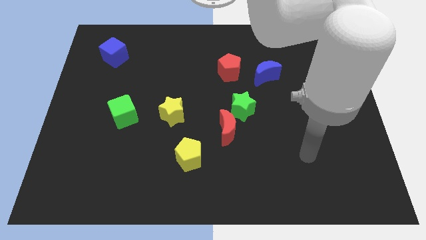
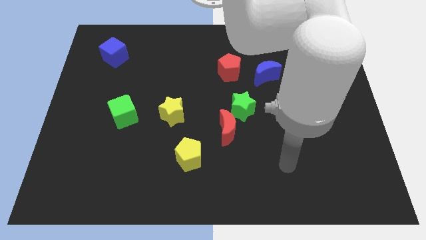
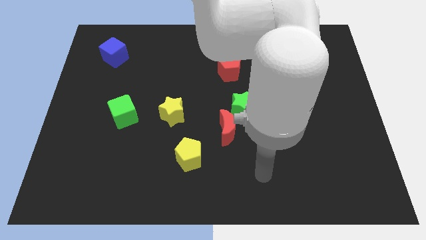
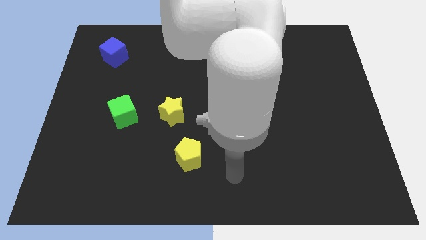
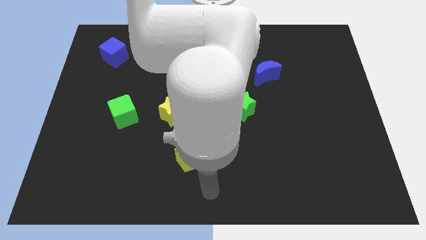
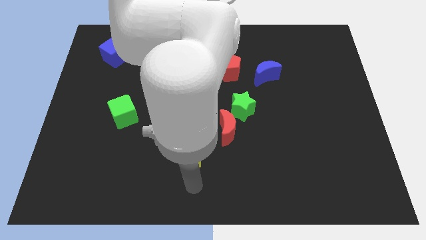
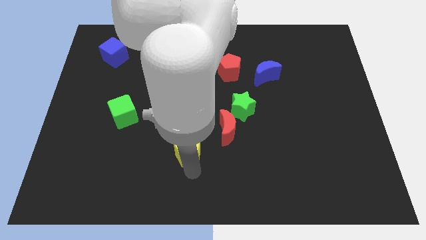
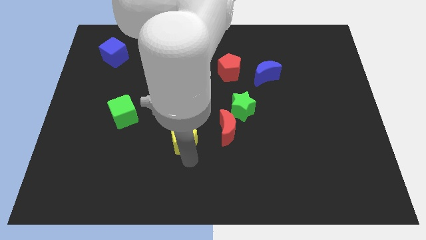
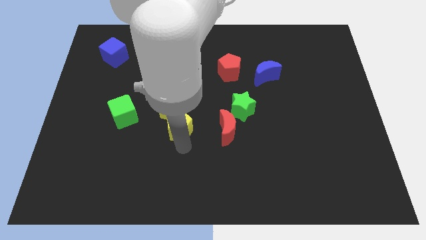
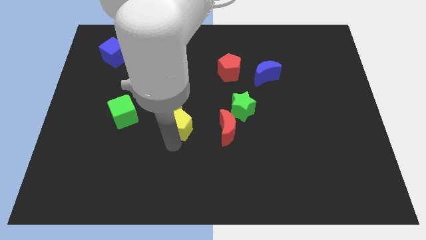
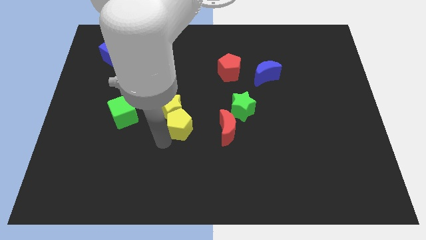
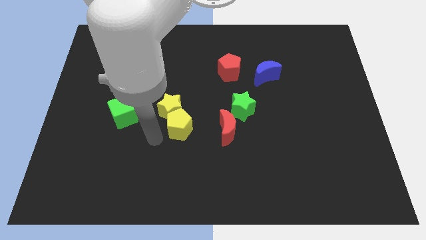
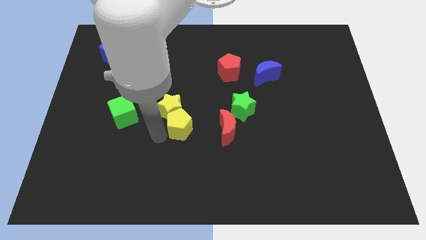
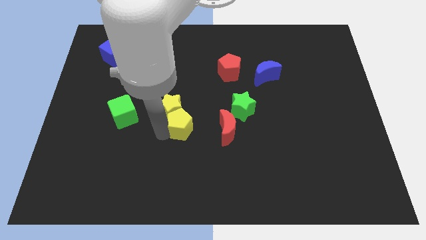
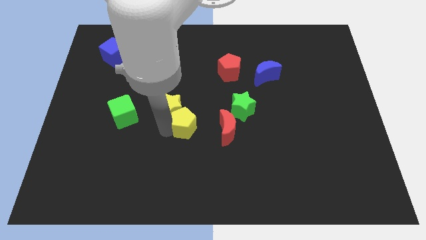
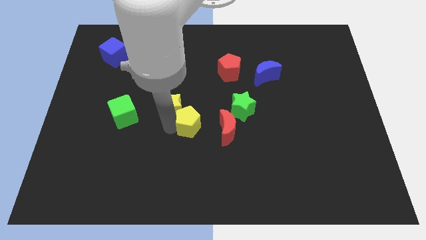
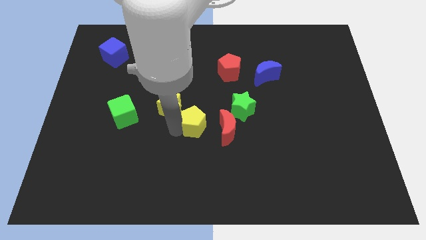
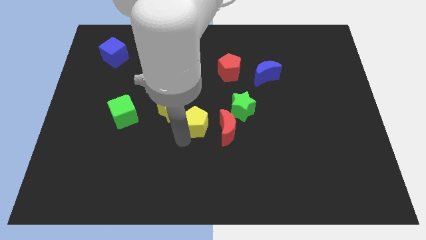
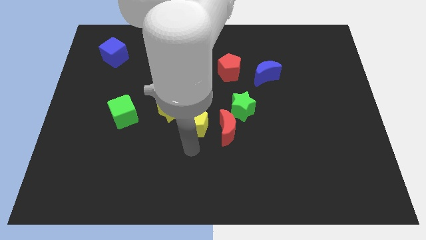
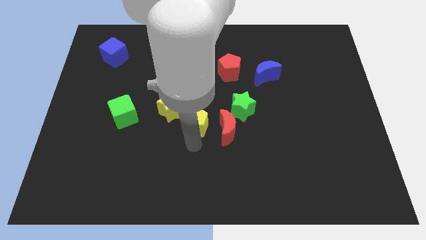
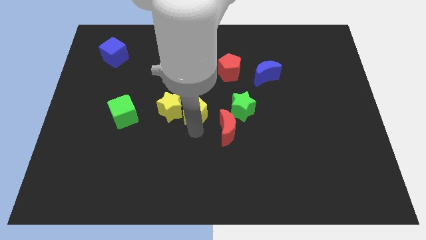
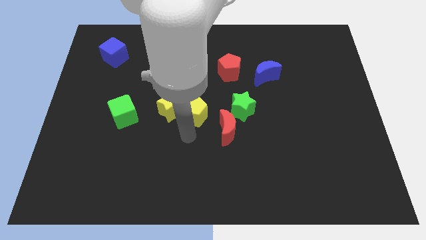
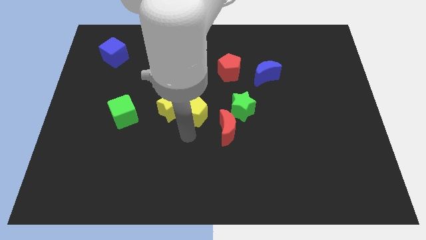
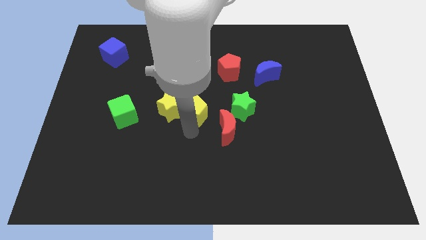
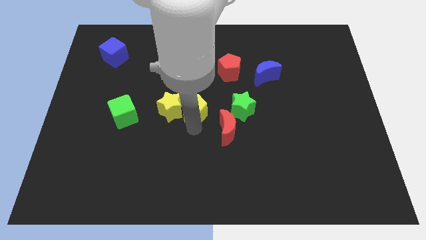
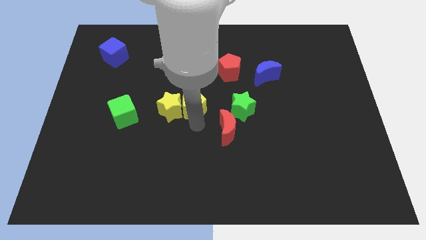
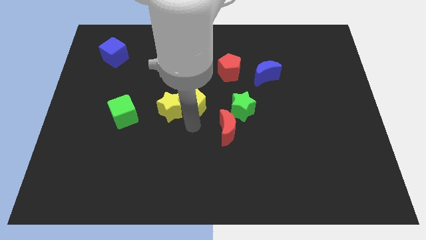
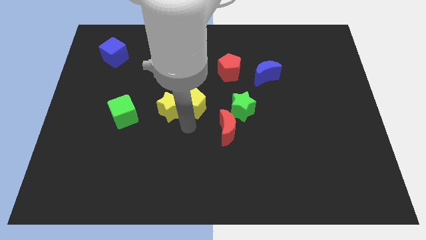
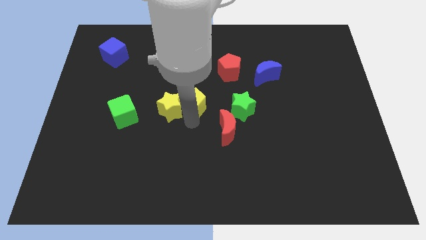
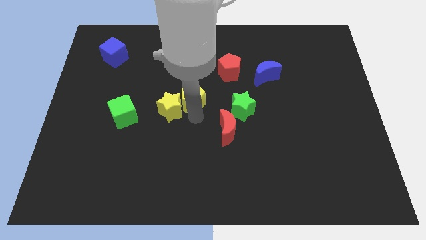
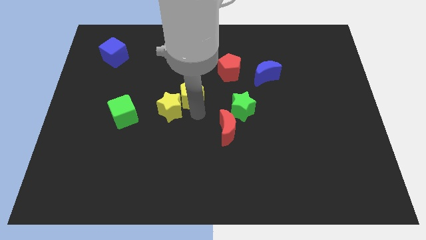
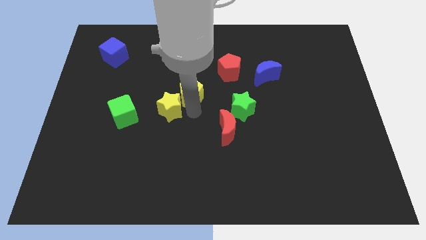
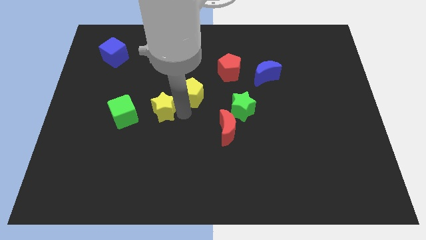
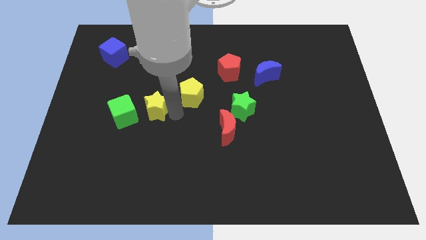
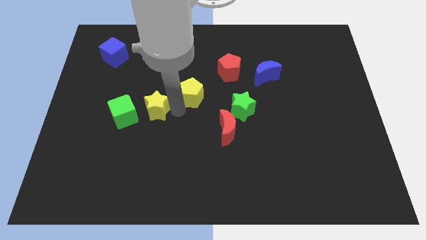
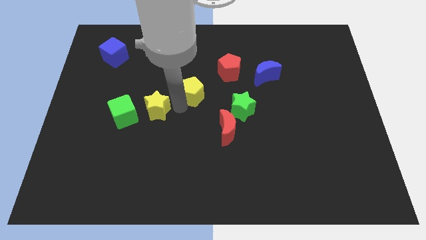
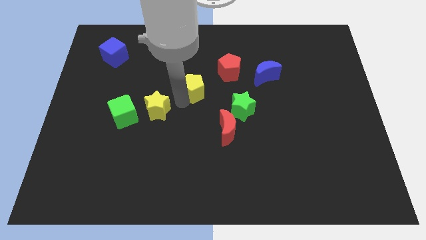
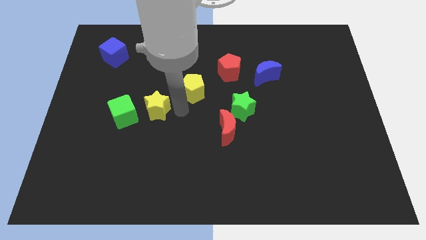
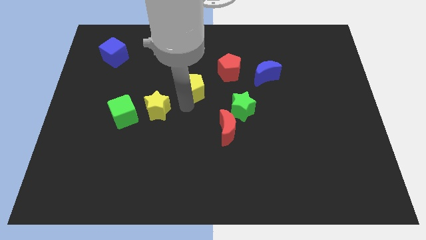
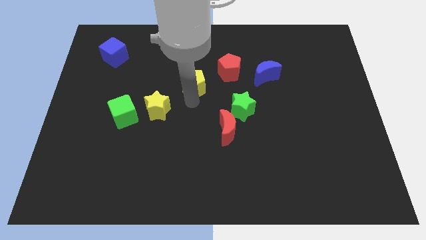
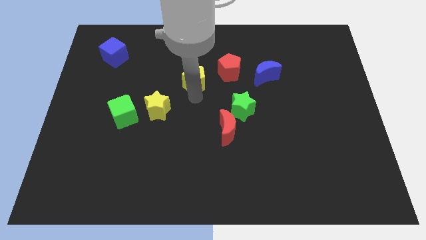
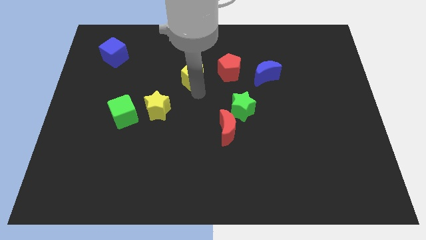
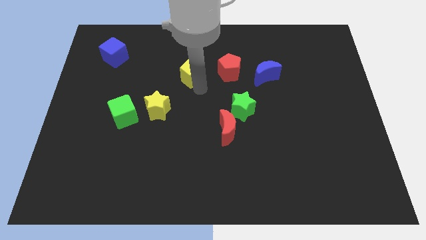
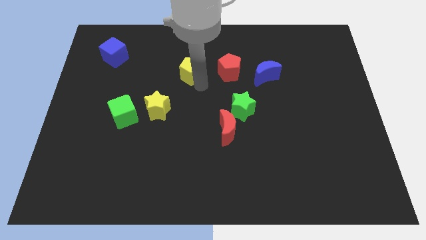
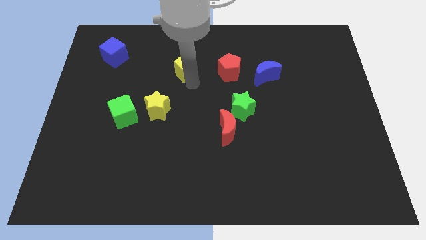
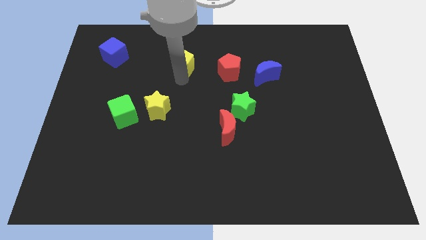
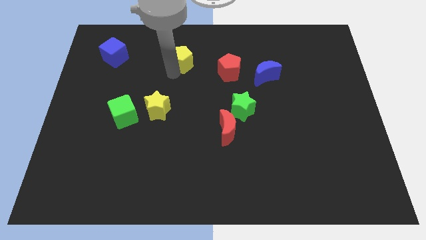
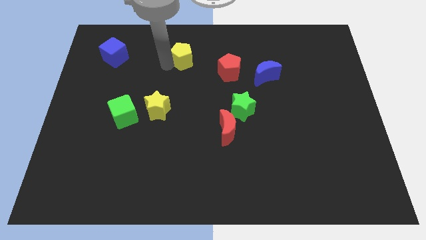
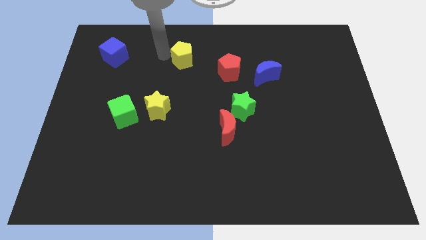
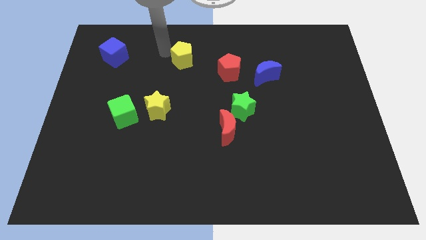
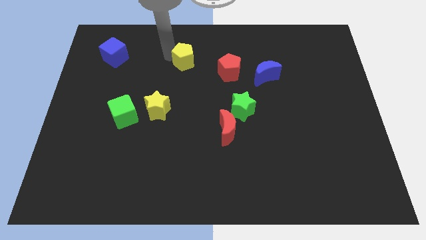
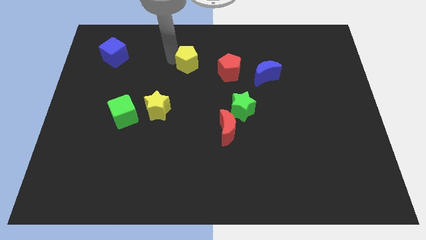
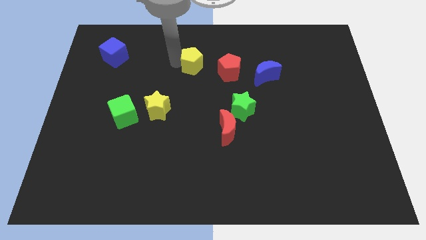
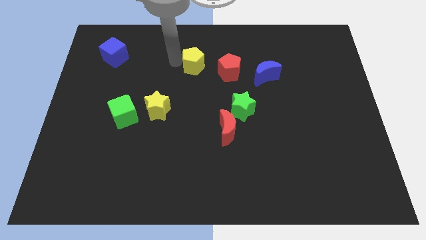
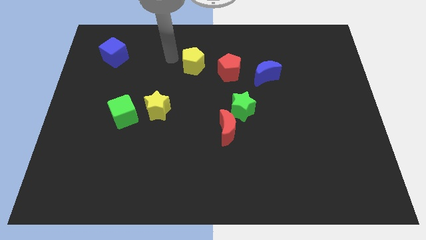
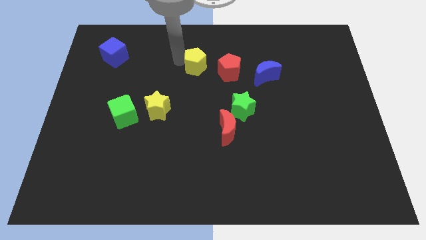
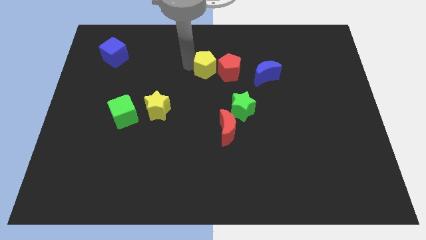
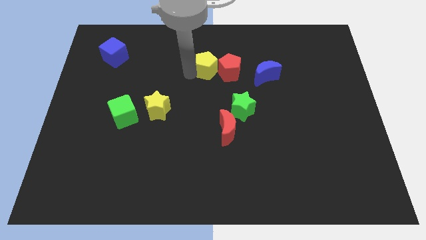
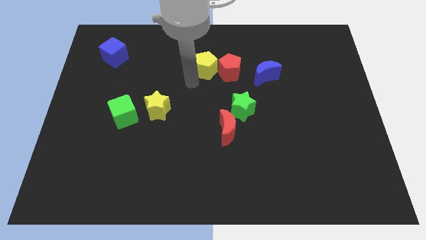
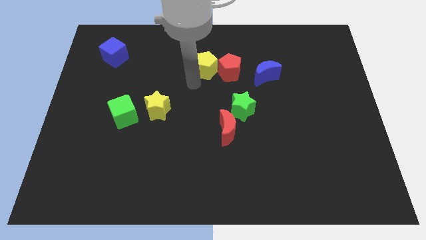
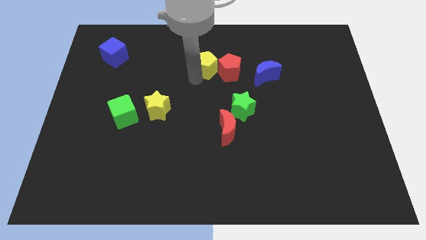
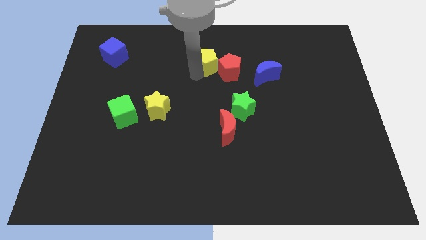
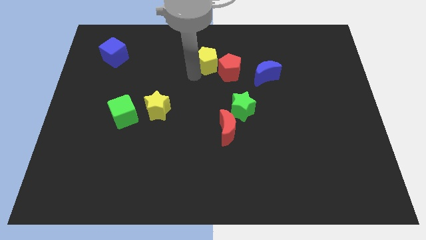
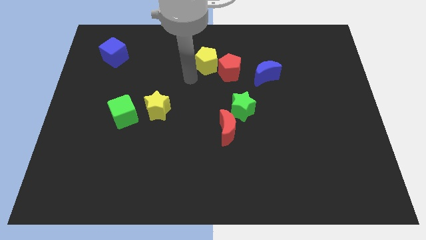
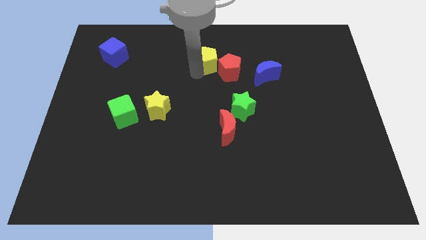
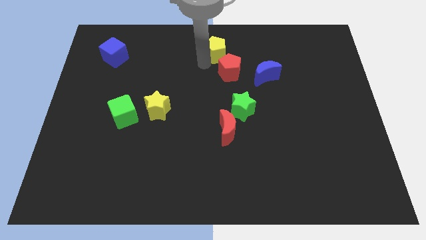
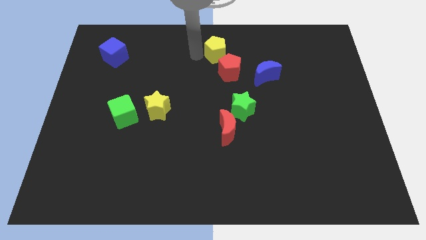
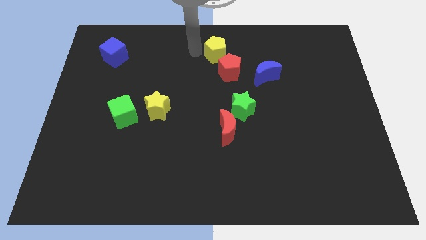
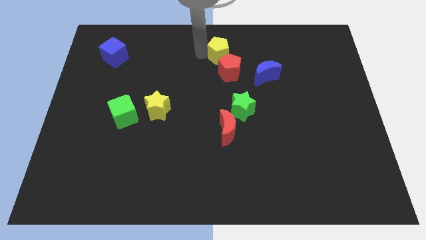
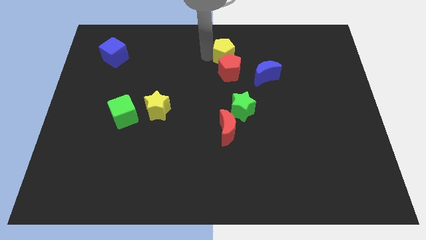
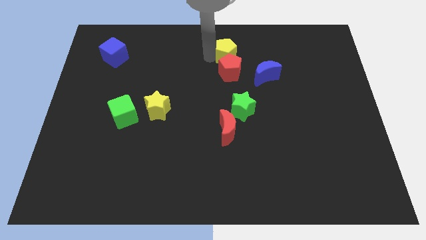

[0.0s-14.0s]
move the yellow pentagon diagonally up and to the right of the red pentagon
